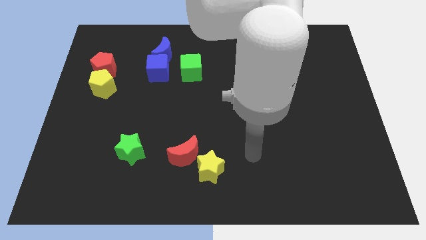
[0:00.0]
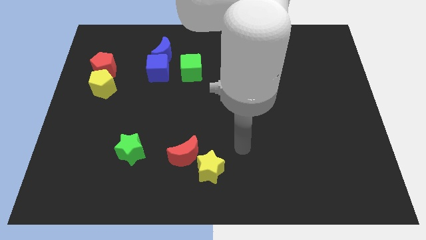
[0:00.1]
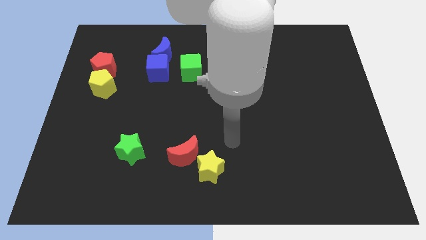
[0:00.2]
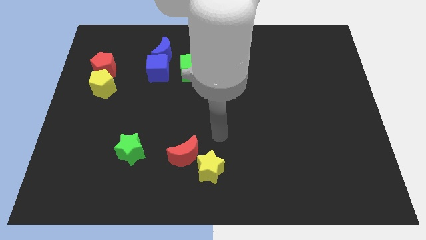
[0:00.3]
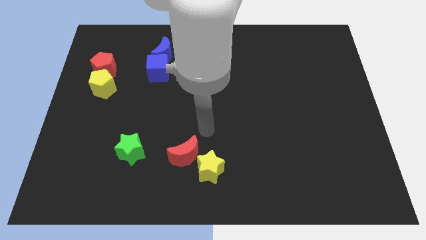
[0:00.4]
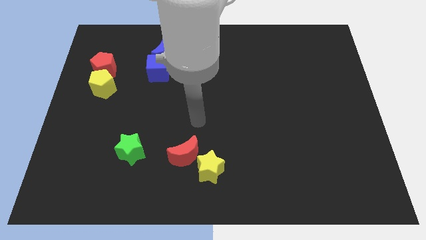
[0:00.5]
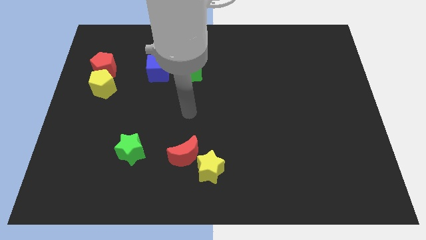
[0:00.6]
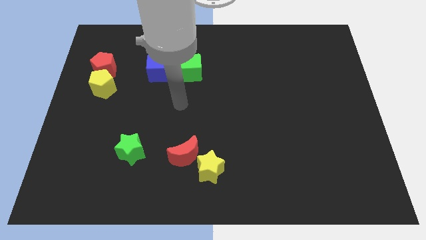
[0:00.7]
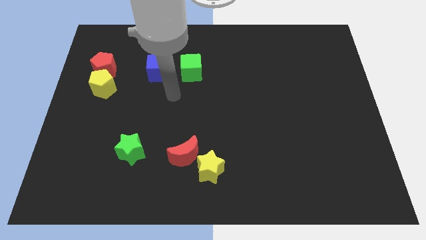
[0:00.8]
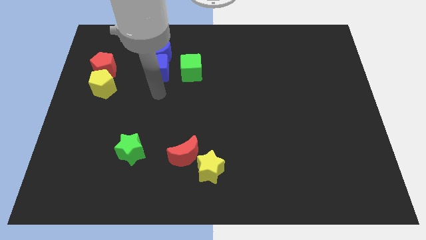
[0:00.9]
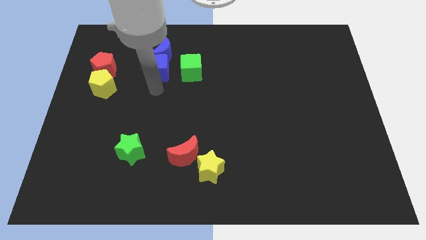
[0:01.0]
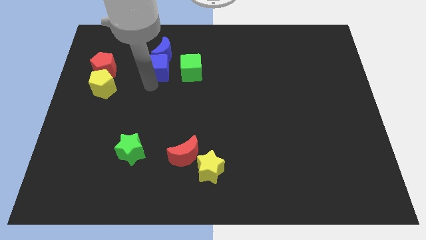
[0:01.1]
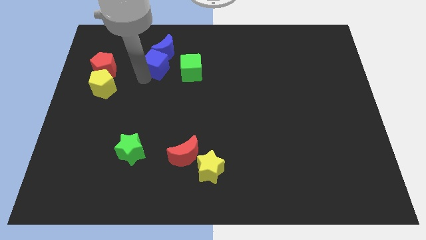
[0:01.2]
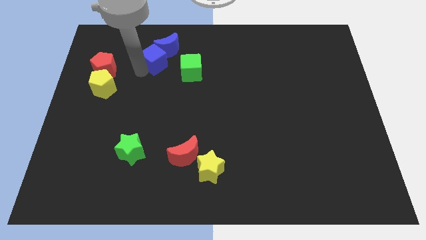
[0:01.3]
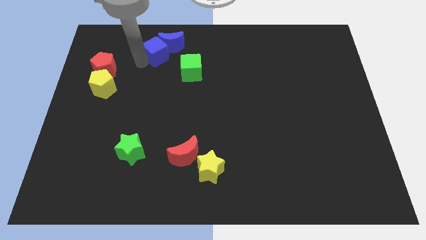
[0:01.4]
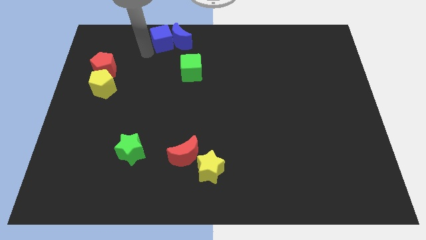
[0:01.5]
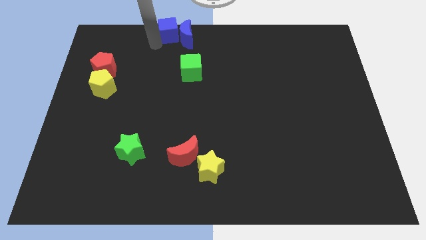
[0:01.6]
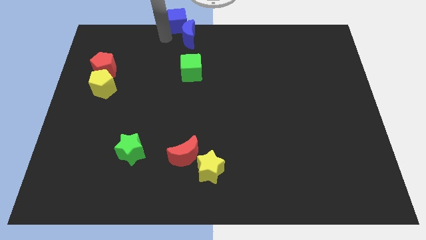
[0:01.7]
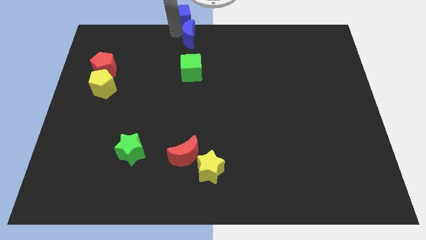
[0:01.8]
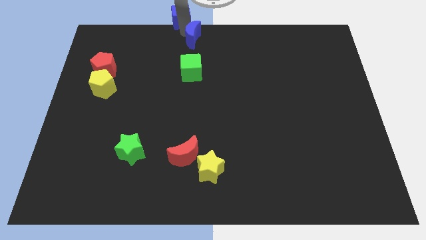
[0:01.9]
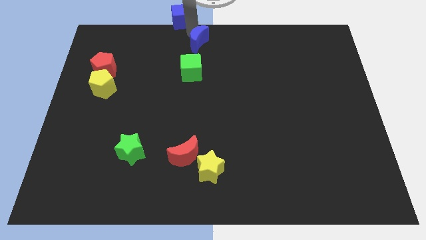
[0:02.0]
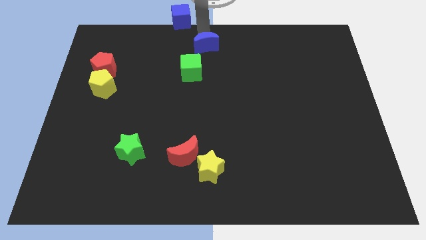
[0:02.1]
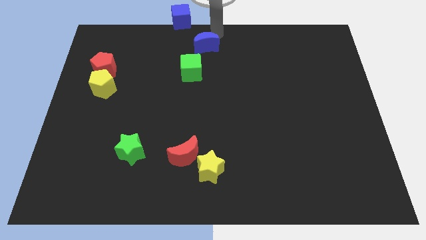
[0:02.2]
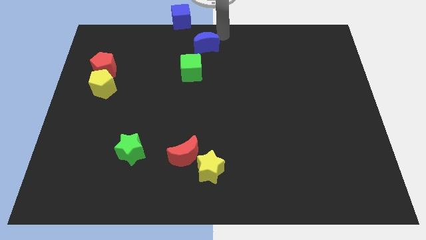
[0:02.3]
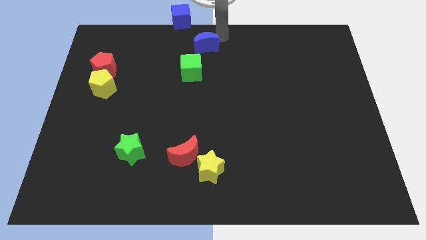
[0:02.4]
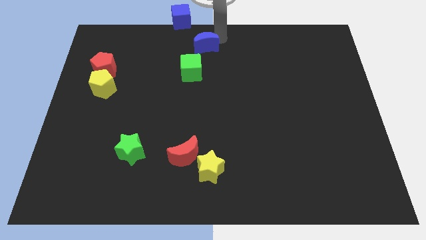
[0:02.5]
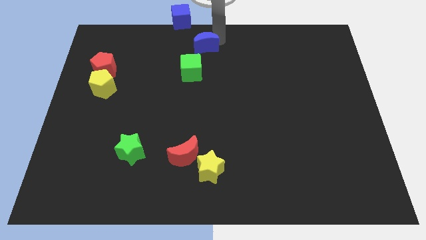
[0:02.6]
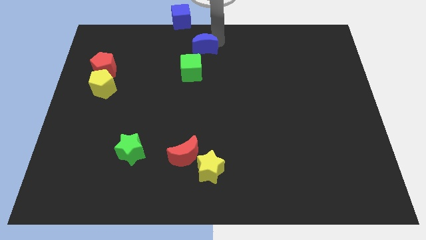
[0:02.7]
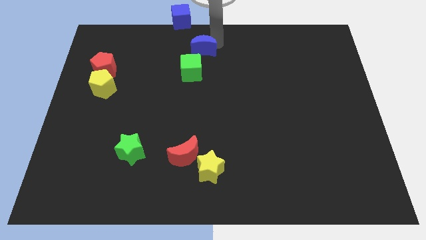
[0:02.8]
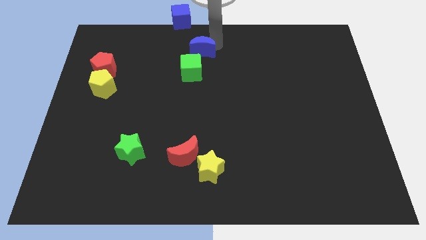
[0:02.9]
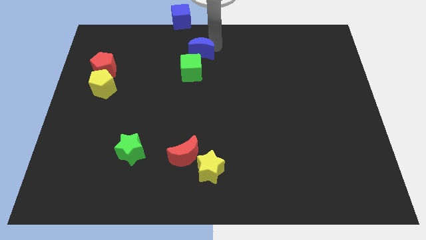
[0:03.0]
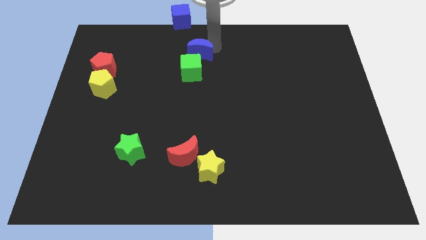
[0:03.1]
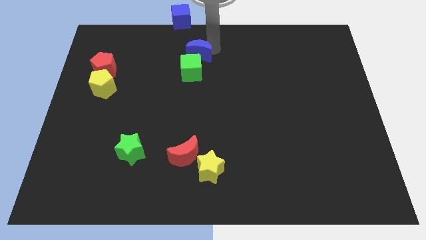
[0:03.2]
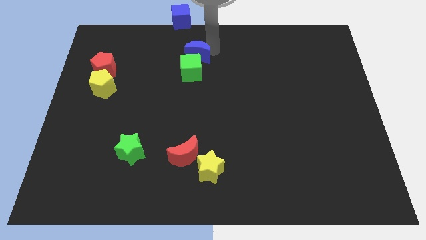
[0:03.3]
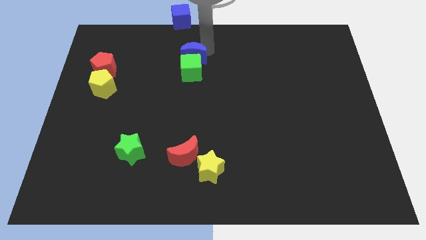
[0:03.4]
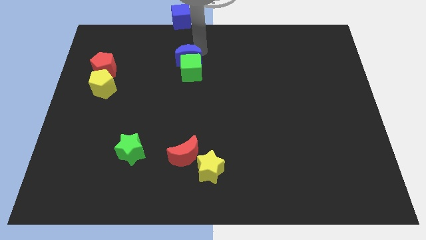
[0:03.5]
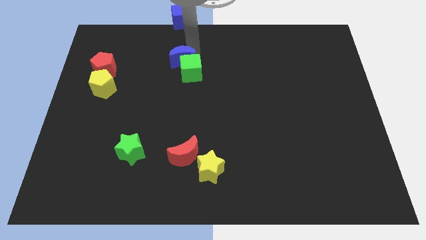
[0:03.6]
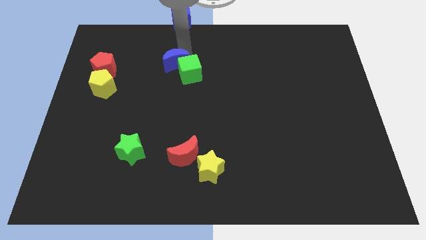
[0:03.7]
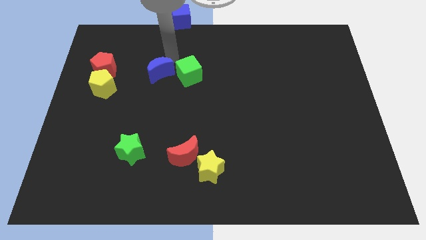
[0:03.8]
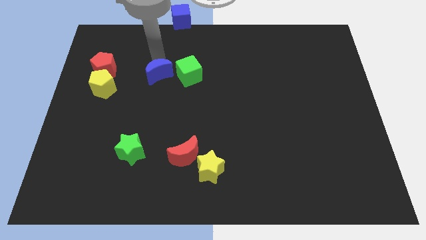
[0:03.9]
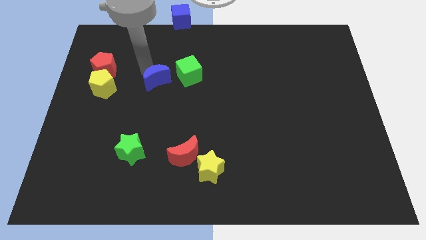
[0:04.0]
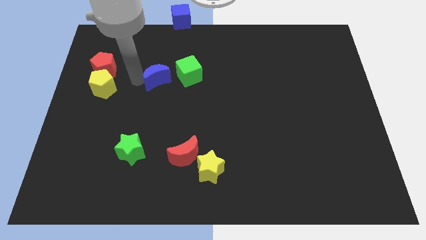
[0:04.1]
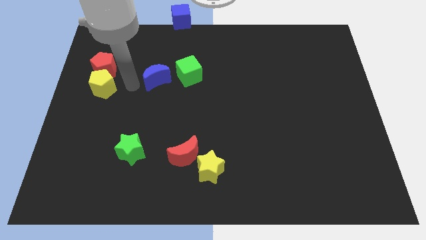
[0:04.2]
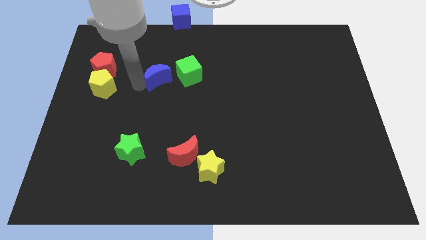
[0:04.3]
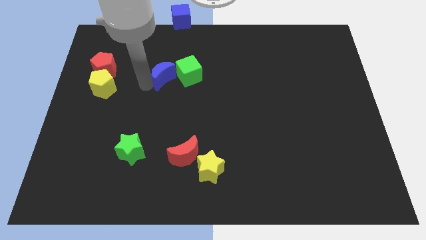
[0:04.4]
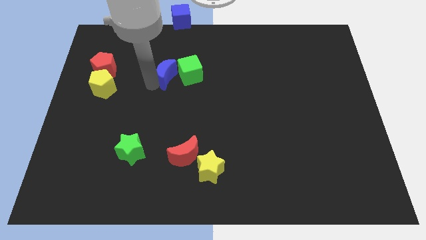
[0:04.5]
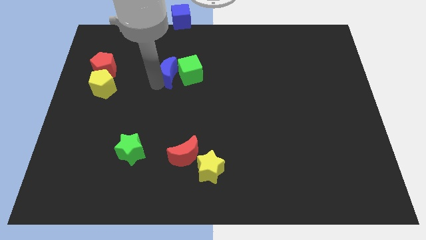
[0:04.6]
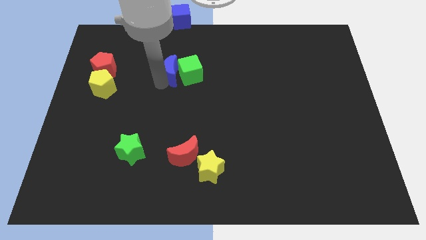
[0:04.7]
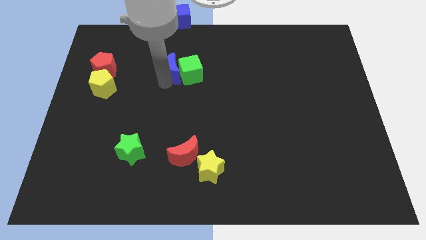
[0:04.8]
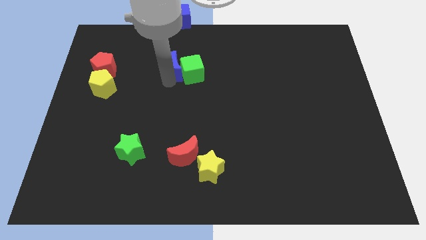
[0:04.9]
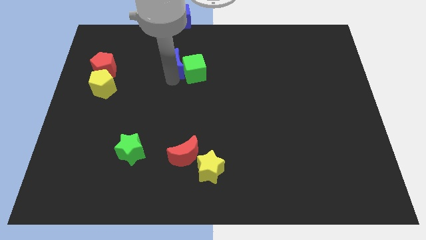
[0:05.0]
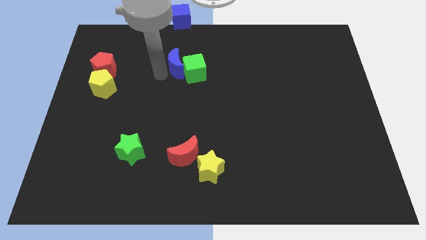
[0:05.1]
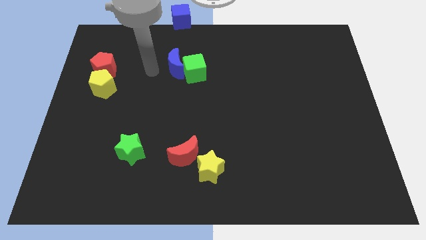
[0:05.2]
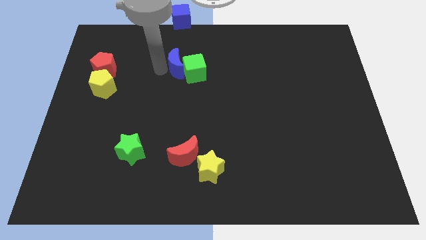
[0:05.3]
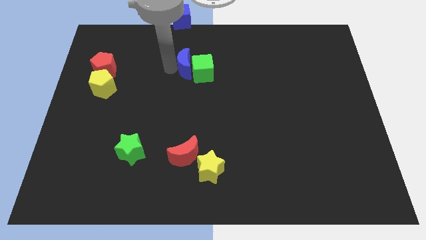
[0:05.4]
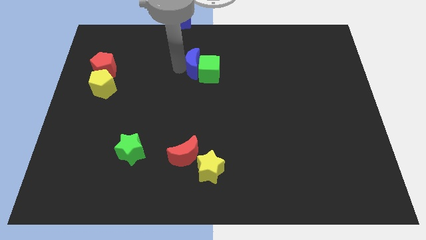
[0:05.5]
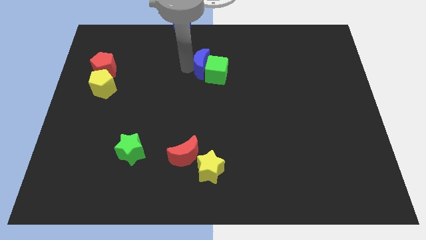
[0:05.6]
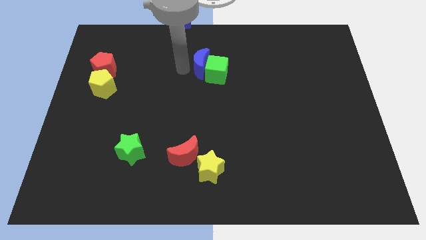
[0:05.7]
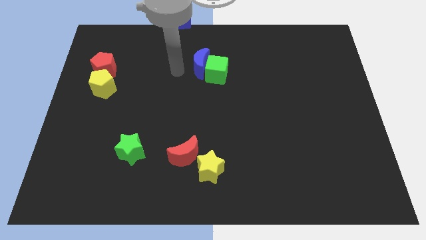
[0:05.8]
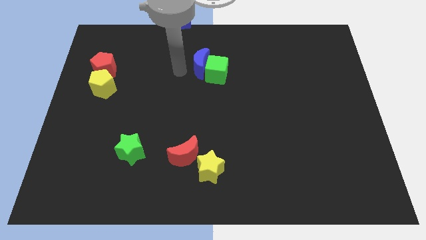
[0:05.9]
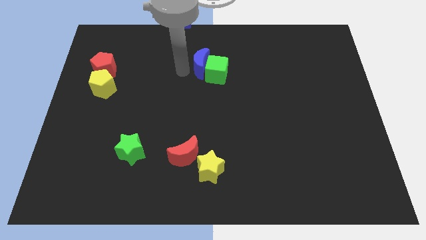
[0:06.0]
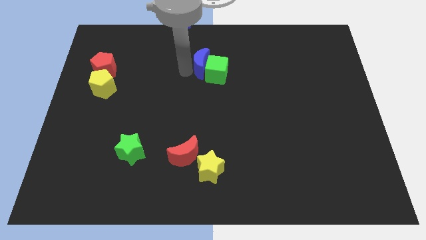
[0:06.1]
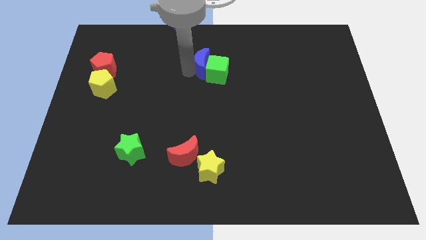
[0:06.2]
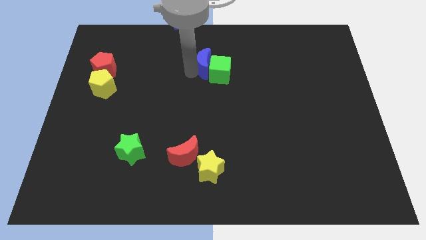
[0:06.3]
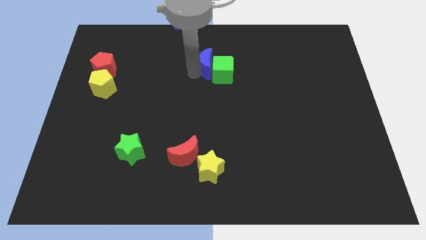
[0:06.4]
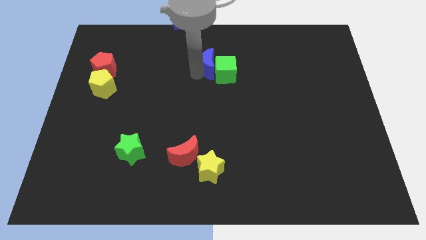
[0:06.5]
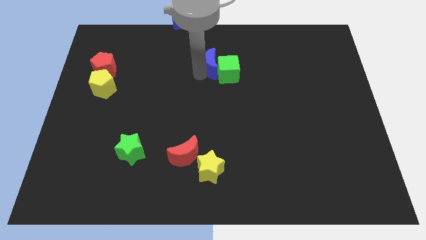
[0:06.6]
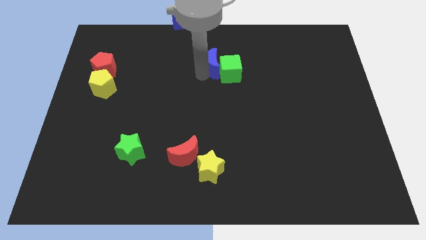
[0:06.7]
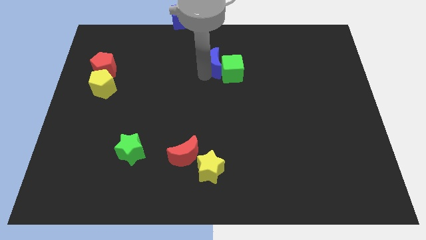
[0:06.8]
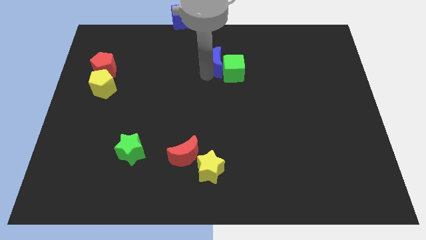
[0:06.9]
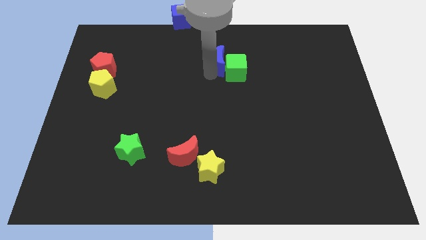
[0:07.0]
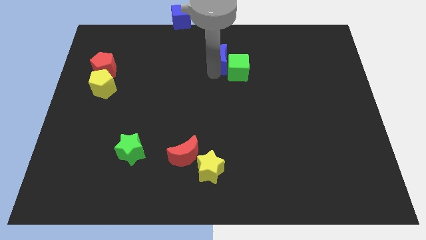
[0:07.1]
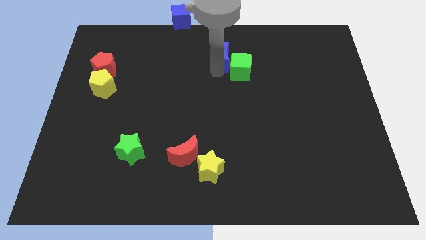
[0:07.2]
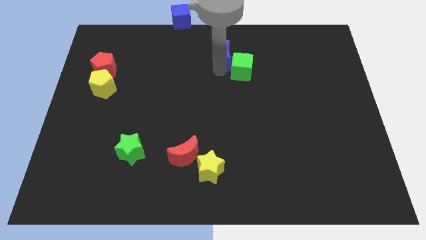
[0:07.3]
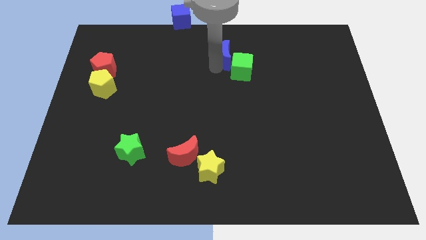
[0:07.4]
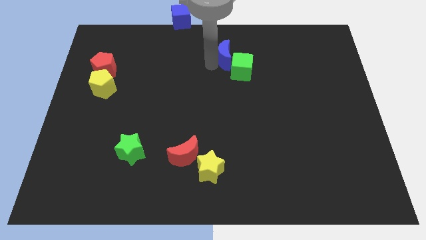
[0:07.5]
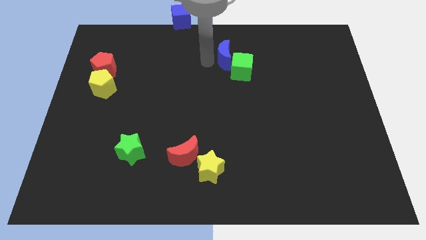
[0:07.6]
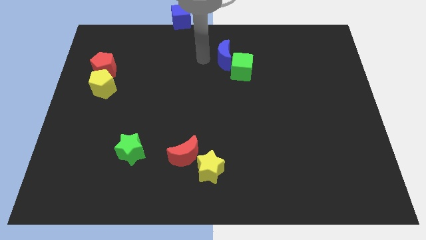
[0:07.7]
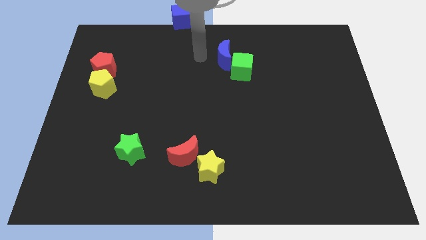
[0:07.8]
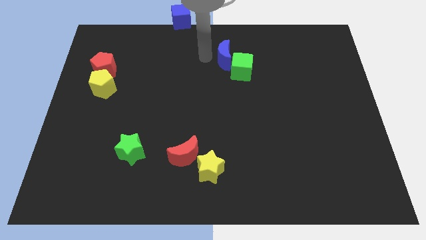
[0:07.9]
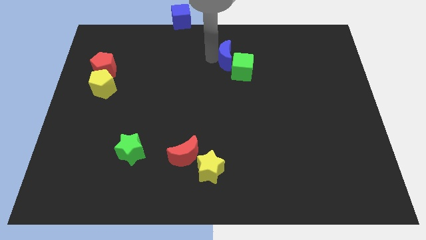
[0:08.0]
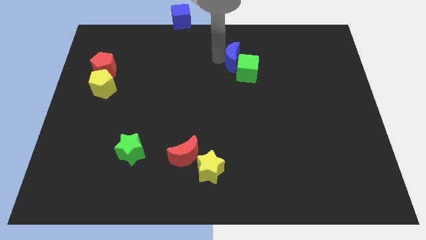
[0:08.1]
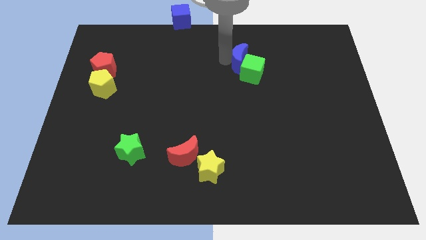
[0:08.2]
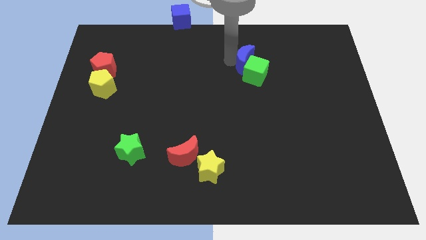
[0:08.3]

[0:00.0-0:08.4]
move the blue moon right
